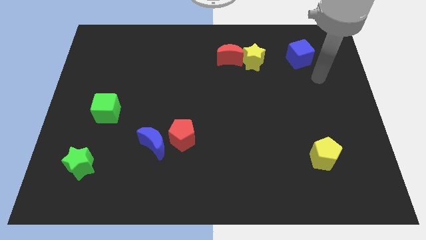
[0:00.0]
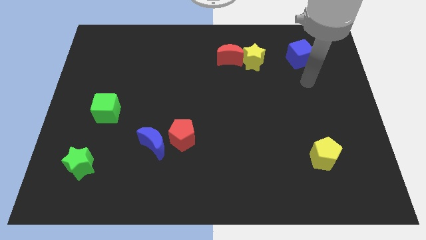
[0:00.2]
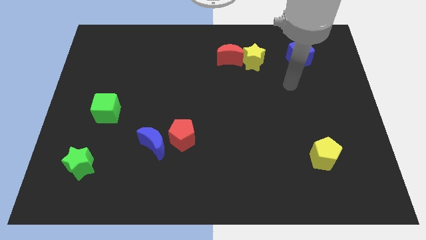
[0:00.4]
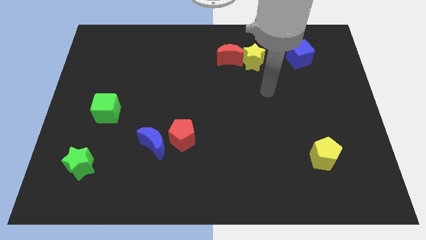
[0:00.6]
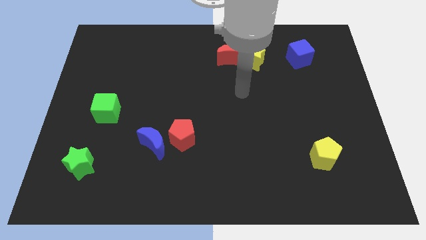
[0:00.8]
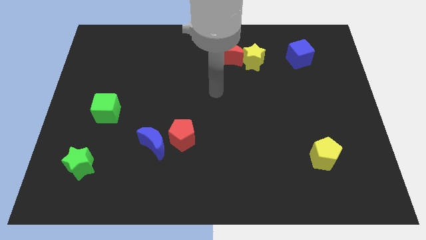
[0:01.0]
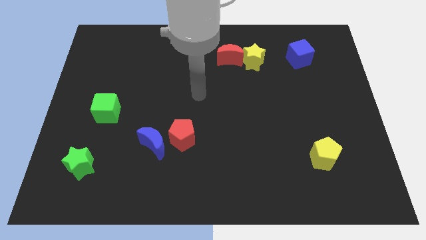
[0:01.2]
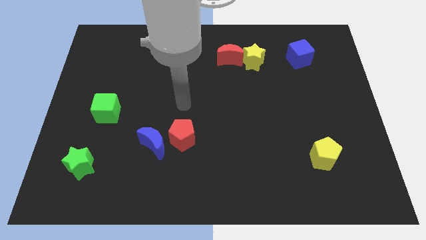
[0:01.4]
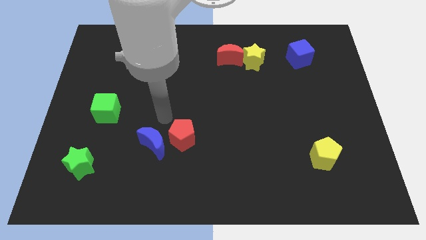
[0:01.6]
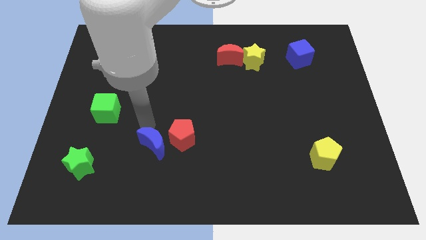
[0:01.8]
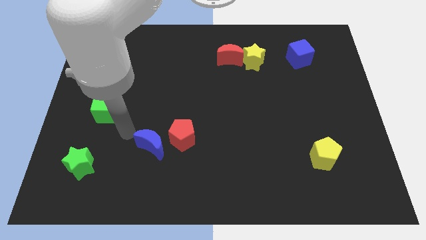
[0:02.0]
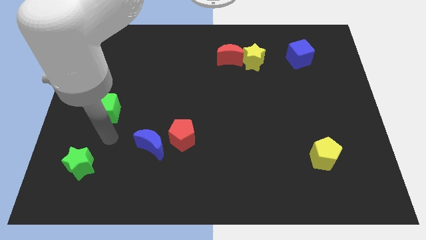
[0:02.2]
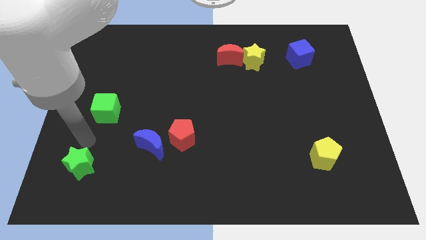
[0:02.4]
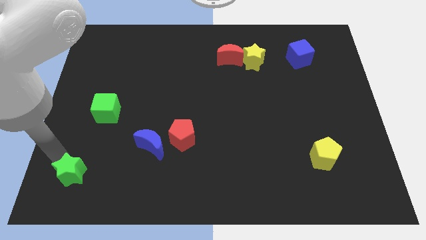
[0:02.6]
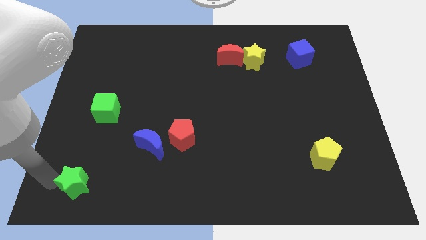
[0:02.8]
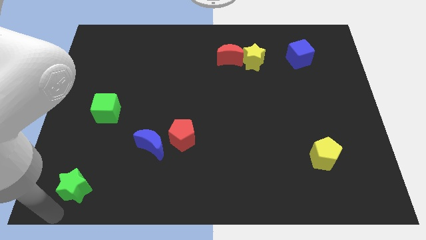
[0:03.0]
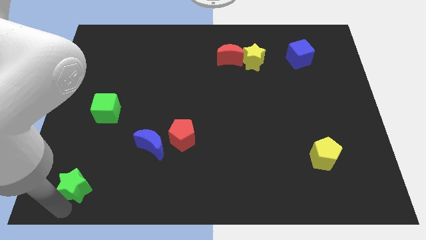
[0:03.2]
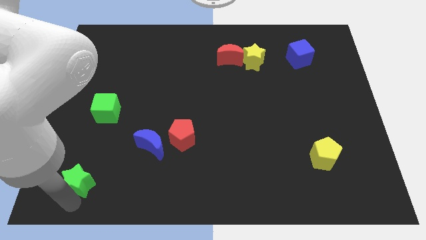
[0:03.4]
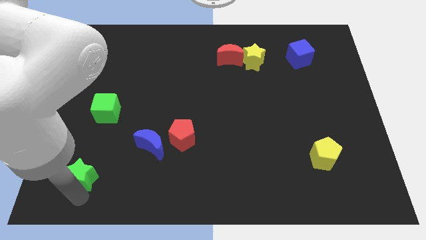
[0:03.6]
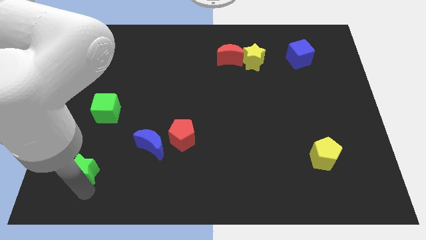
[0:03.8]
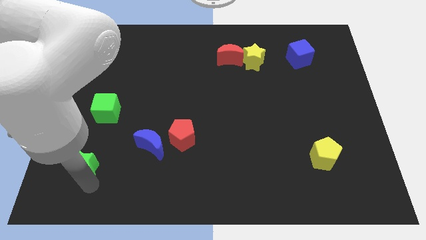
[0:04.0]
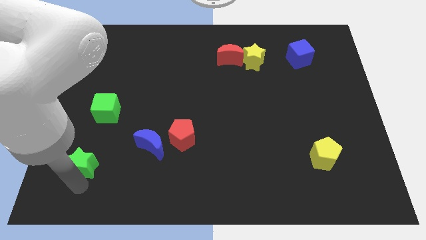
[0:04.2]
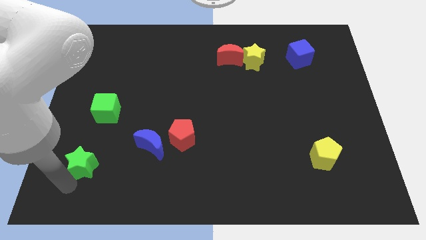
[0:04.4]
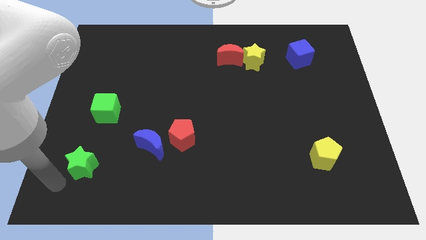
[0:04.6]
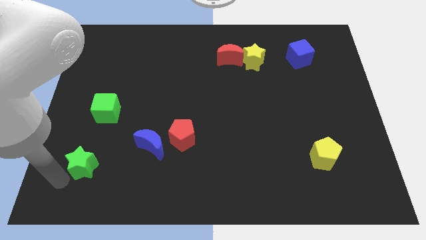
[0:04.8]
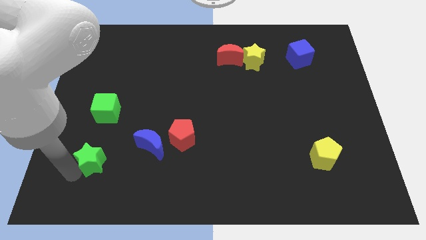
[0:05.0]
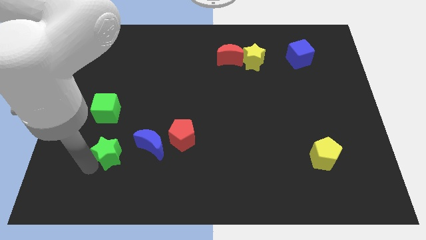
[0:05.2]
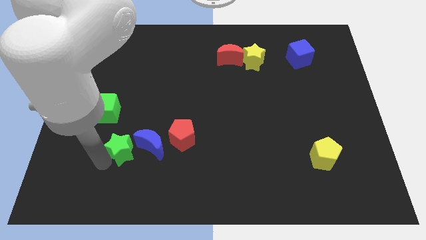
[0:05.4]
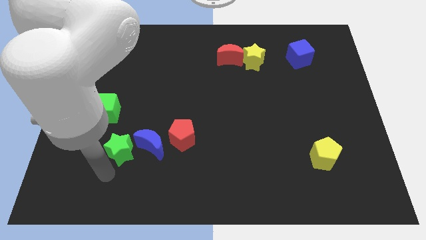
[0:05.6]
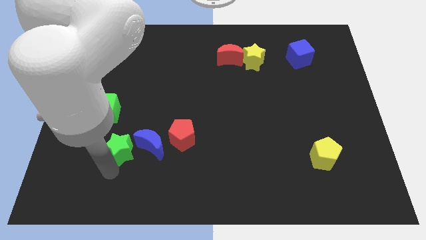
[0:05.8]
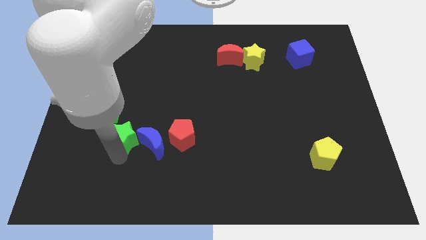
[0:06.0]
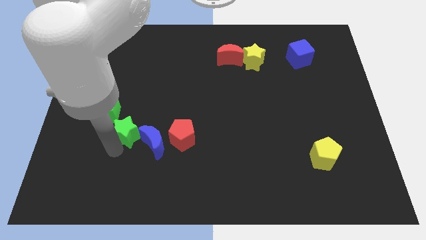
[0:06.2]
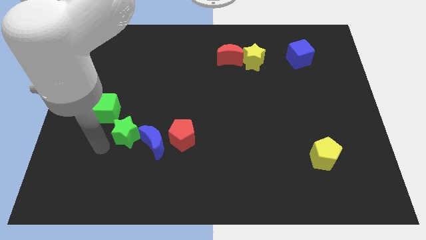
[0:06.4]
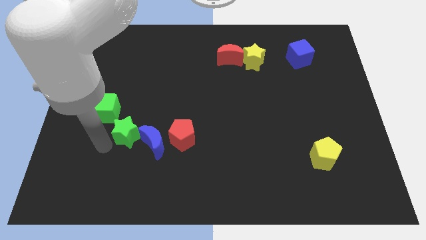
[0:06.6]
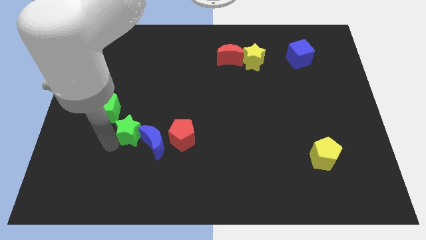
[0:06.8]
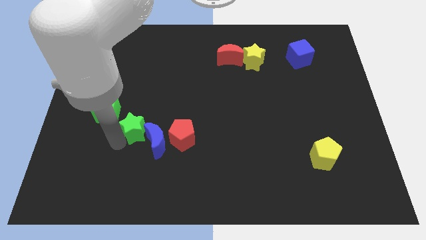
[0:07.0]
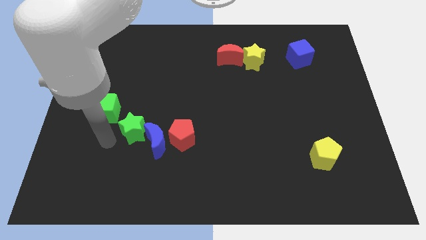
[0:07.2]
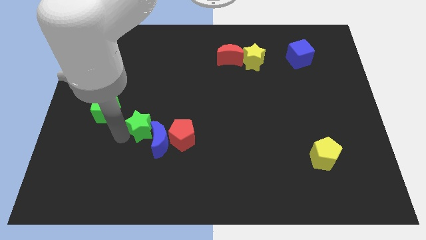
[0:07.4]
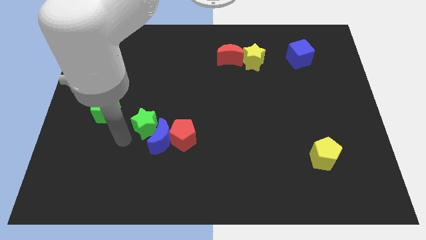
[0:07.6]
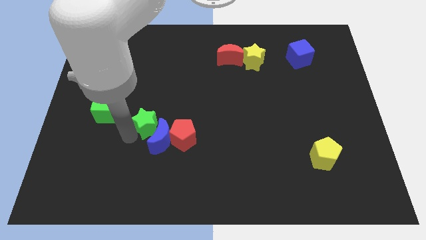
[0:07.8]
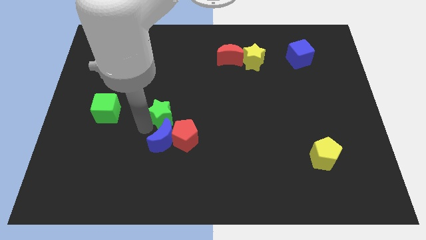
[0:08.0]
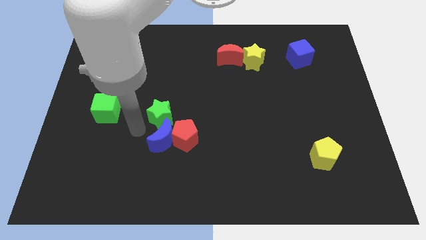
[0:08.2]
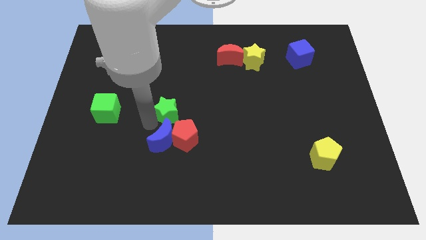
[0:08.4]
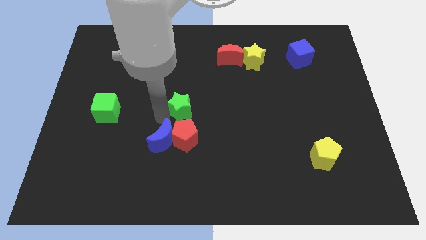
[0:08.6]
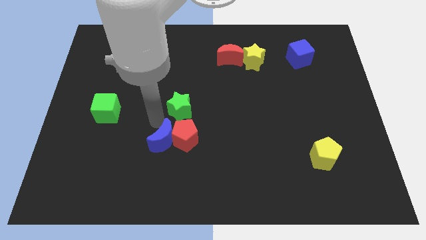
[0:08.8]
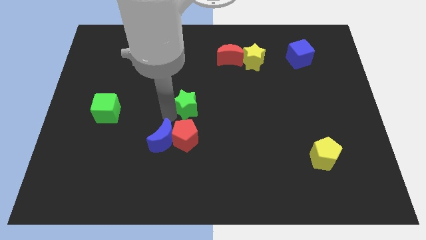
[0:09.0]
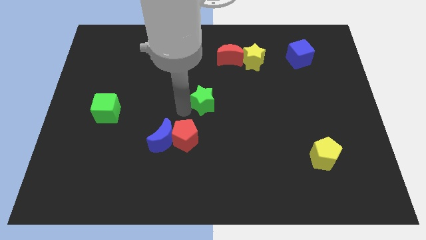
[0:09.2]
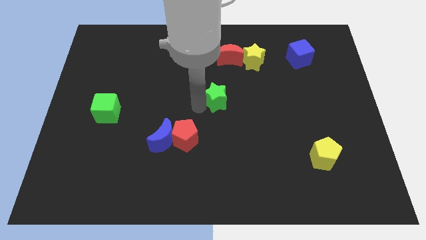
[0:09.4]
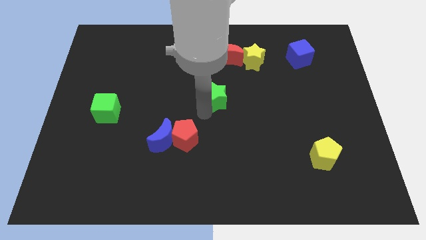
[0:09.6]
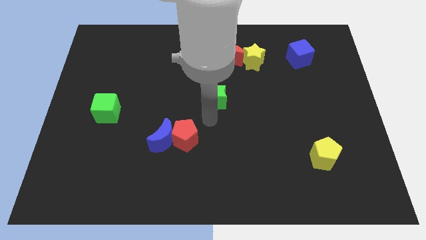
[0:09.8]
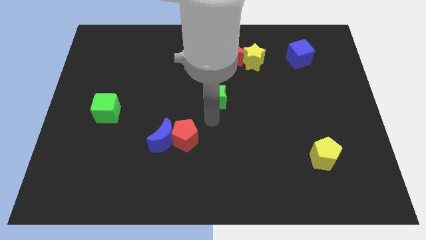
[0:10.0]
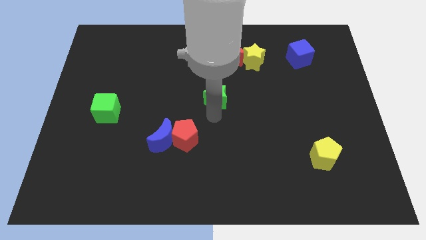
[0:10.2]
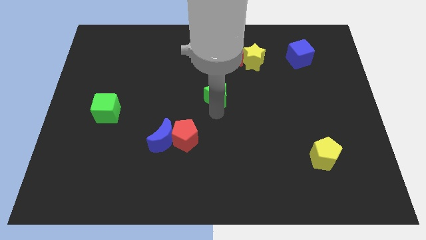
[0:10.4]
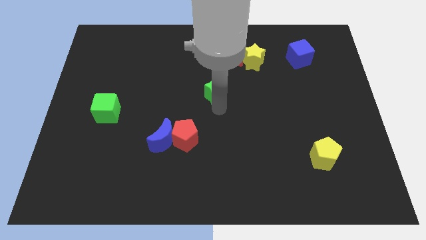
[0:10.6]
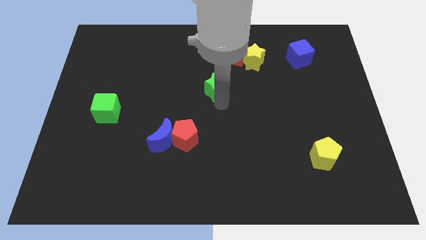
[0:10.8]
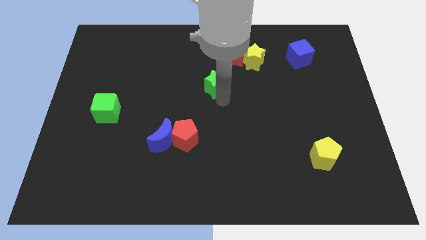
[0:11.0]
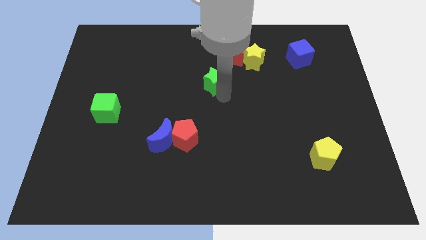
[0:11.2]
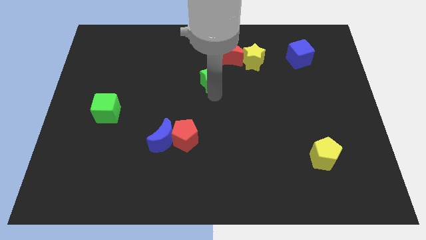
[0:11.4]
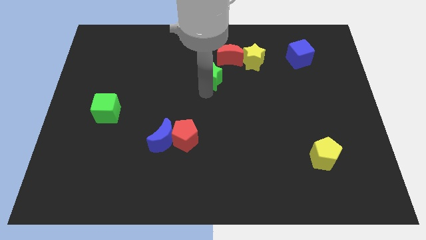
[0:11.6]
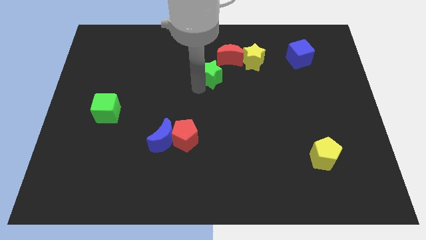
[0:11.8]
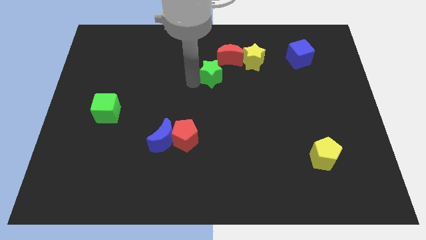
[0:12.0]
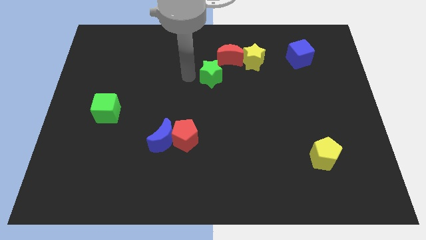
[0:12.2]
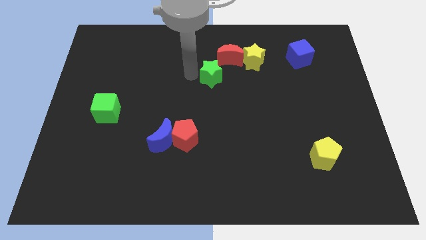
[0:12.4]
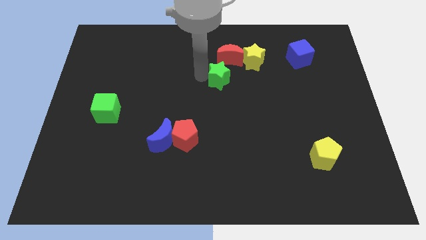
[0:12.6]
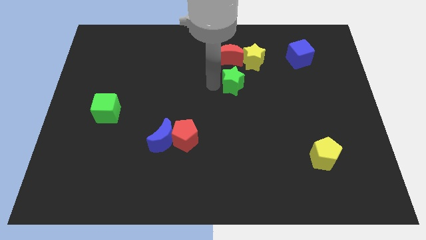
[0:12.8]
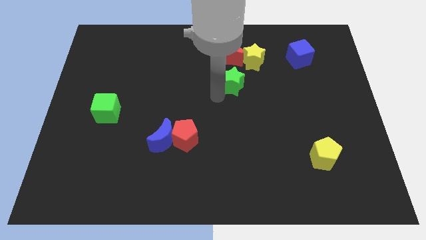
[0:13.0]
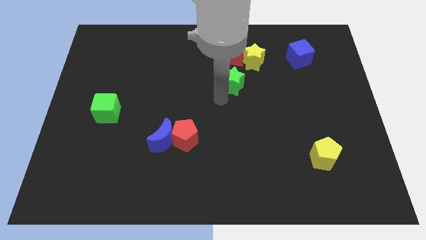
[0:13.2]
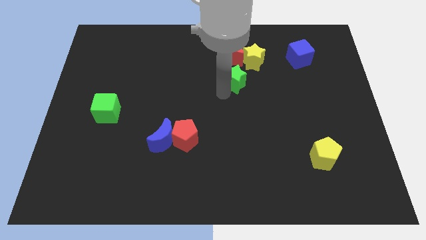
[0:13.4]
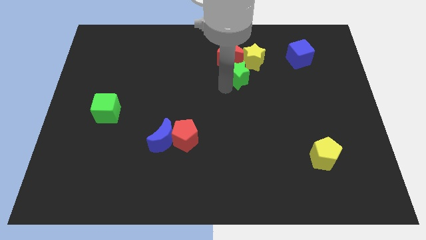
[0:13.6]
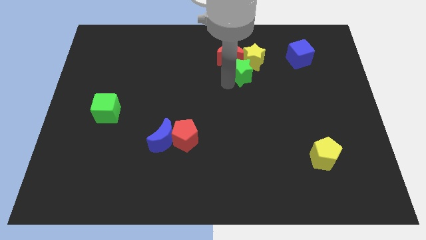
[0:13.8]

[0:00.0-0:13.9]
put the green star to the yellow star
